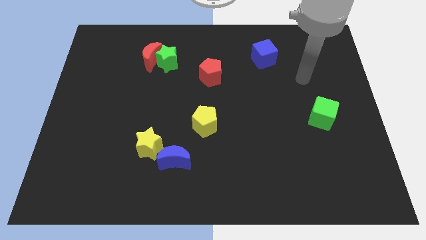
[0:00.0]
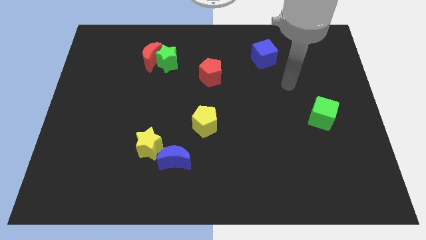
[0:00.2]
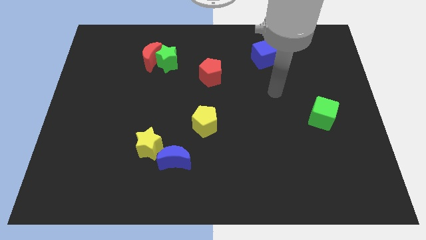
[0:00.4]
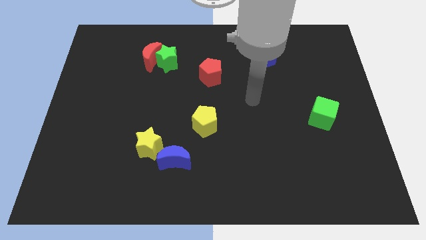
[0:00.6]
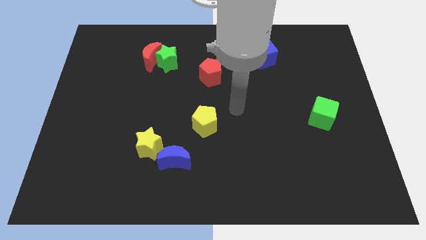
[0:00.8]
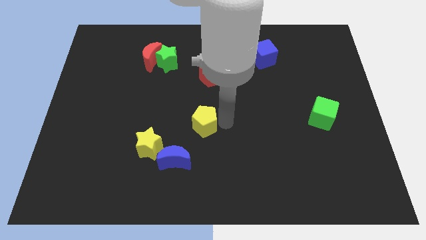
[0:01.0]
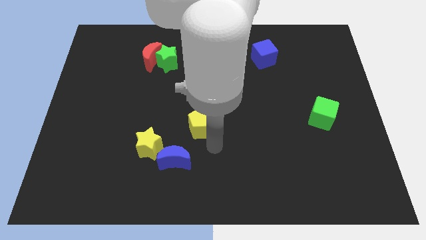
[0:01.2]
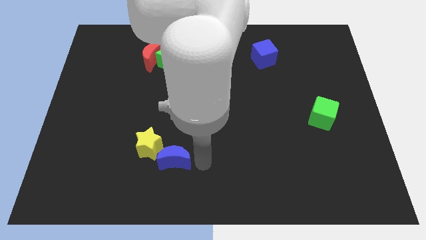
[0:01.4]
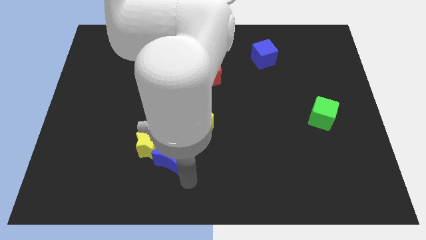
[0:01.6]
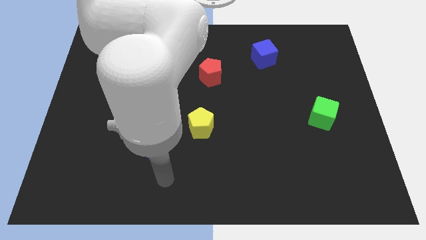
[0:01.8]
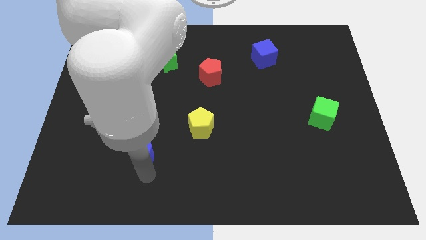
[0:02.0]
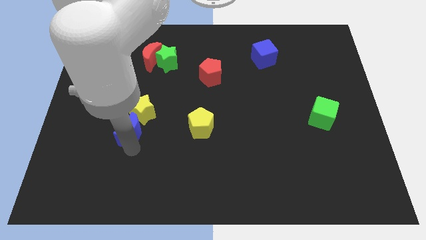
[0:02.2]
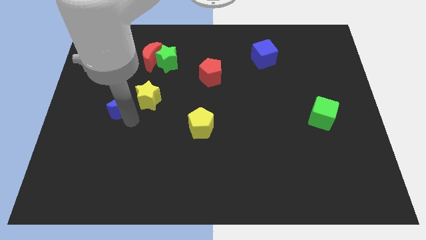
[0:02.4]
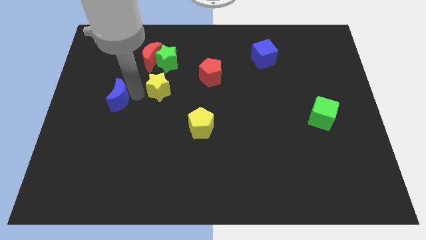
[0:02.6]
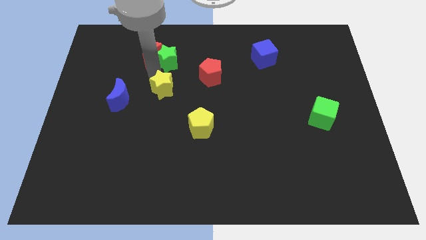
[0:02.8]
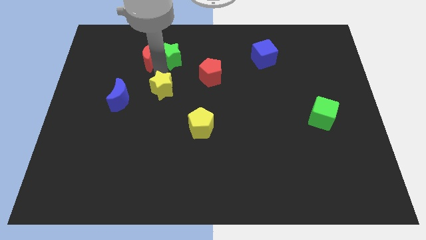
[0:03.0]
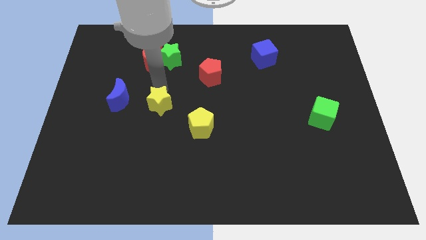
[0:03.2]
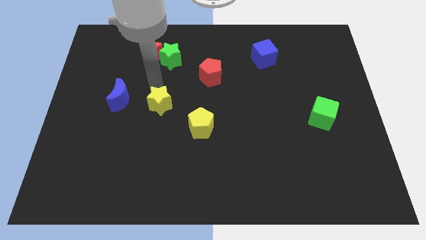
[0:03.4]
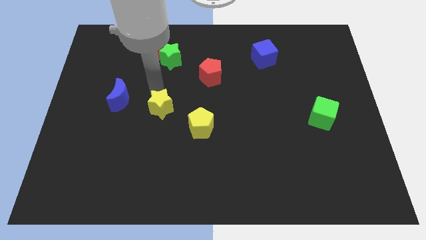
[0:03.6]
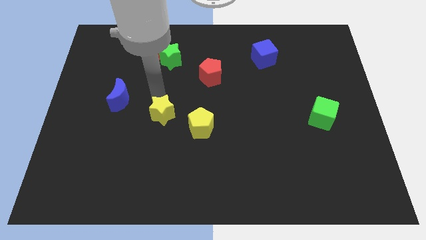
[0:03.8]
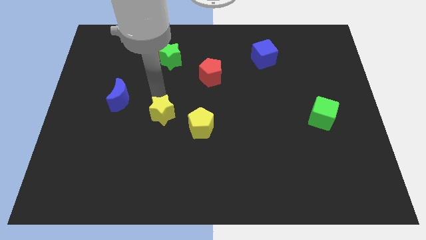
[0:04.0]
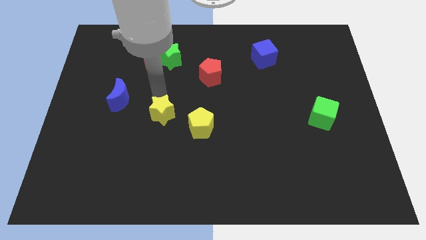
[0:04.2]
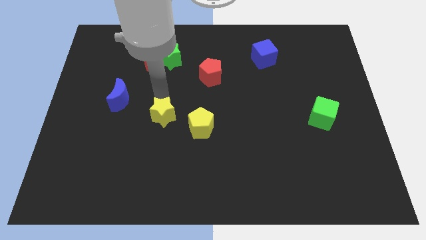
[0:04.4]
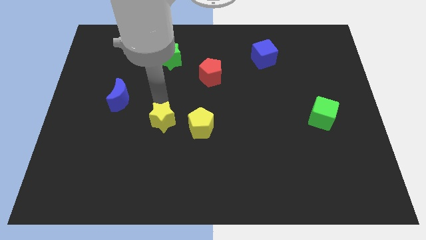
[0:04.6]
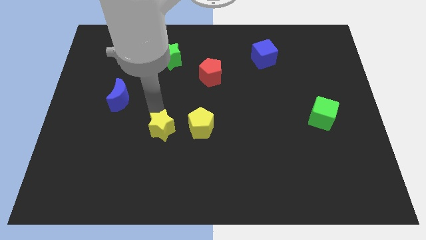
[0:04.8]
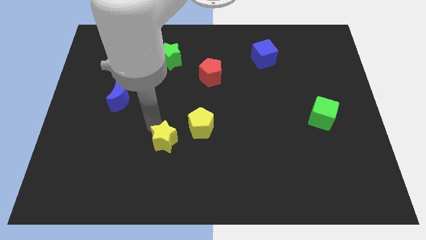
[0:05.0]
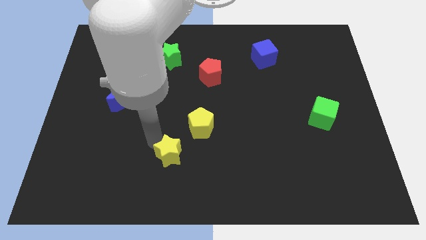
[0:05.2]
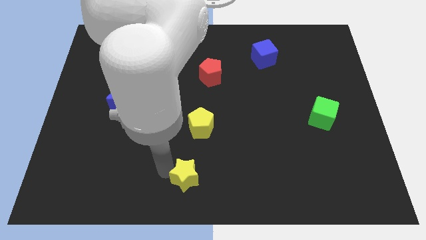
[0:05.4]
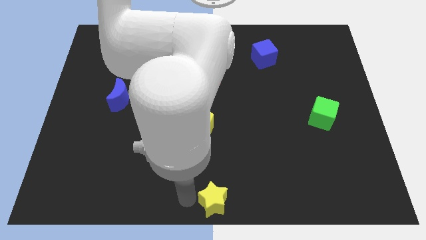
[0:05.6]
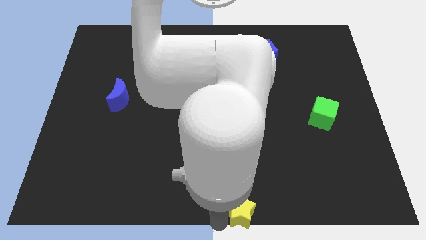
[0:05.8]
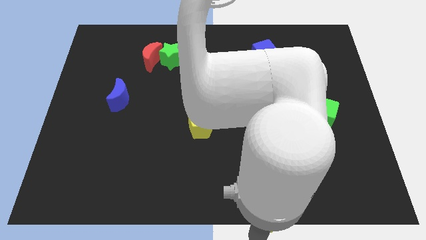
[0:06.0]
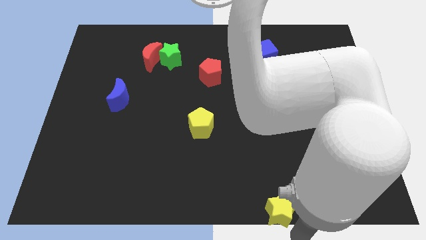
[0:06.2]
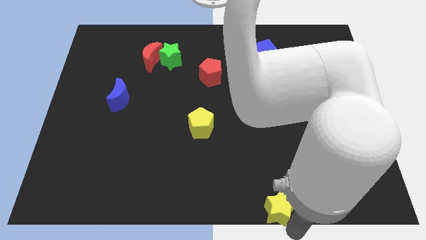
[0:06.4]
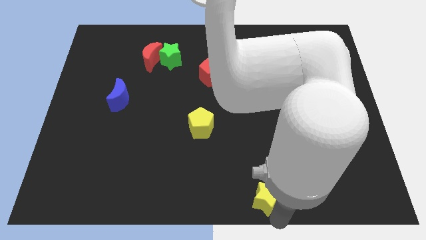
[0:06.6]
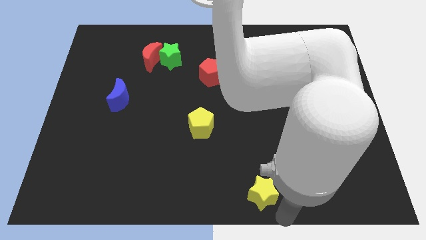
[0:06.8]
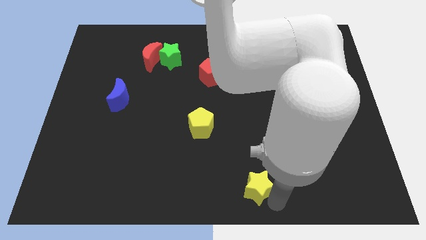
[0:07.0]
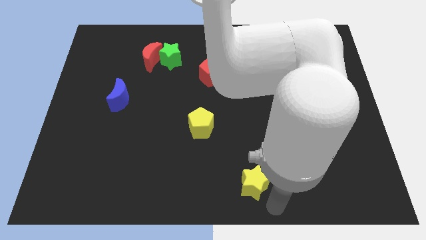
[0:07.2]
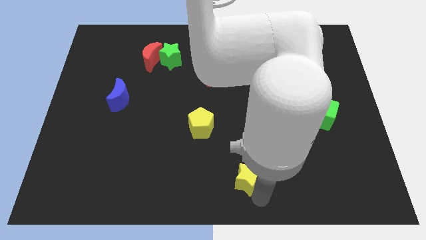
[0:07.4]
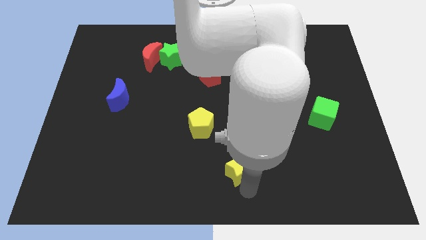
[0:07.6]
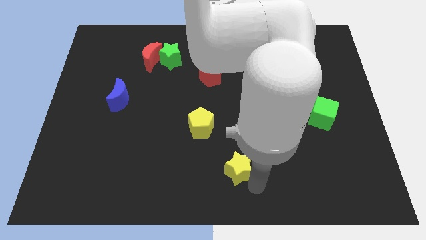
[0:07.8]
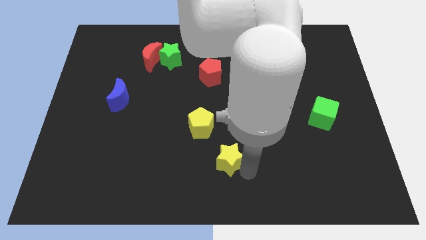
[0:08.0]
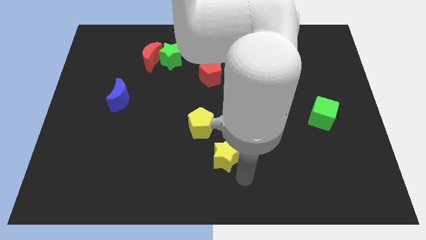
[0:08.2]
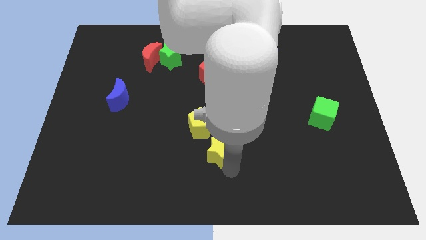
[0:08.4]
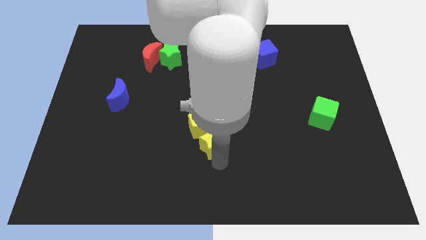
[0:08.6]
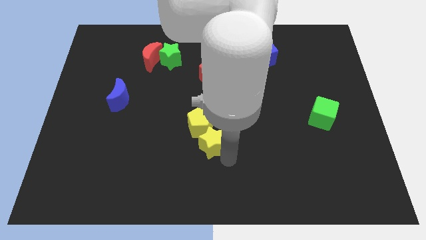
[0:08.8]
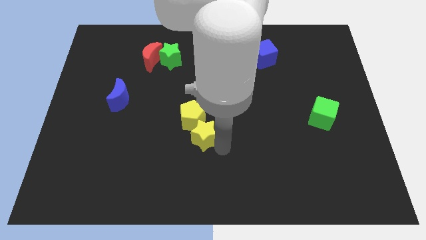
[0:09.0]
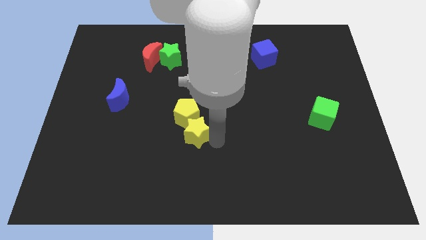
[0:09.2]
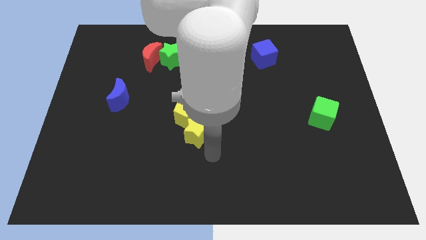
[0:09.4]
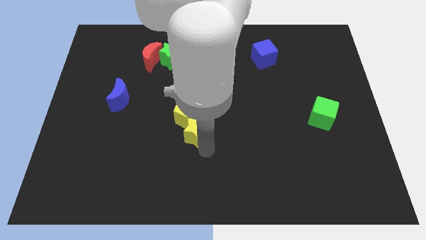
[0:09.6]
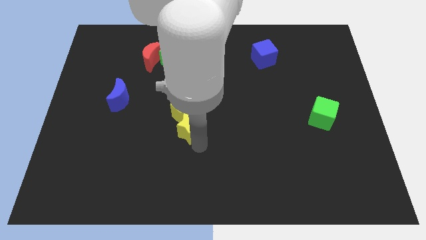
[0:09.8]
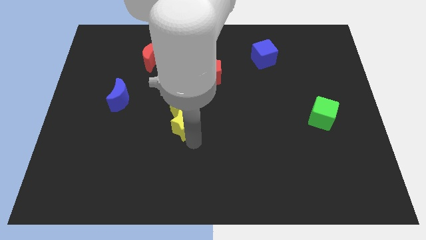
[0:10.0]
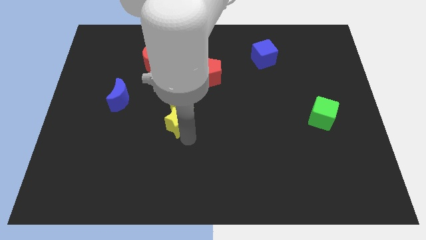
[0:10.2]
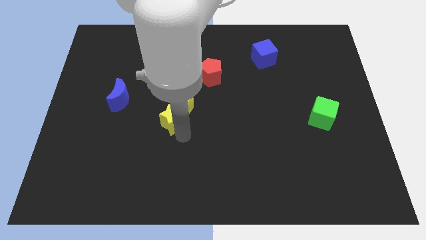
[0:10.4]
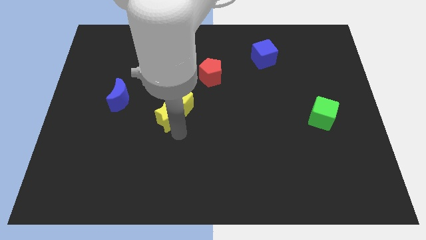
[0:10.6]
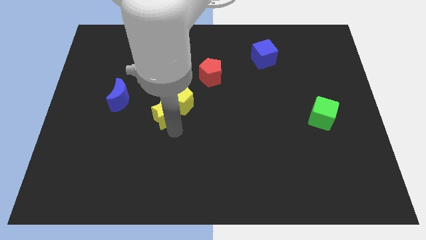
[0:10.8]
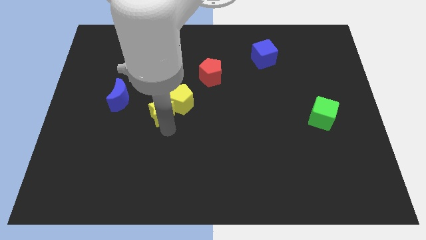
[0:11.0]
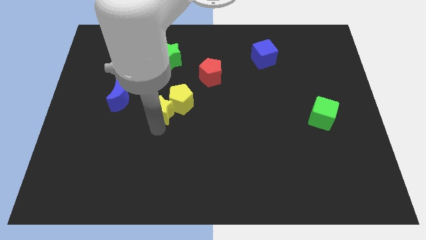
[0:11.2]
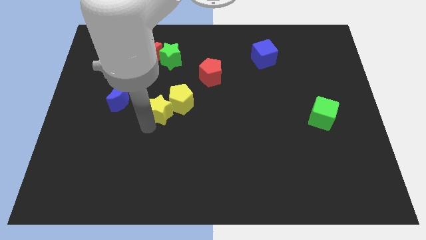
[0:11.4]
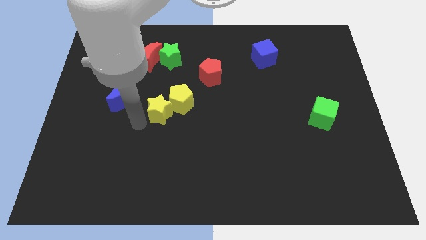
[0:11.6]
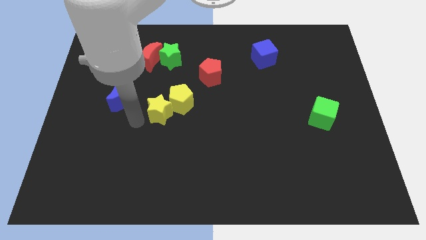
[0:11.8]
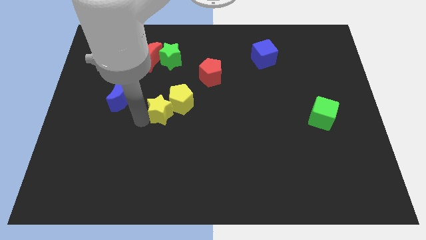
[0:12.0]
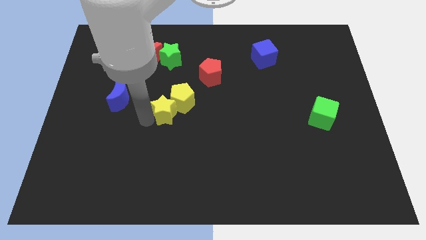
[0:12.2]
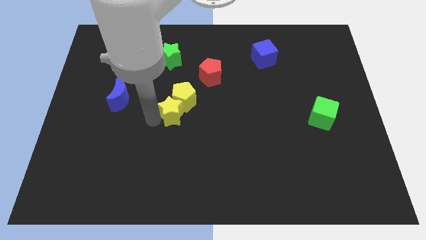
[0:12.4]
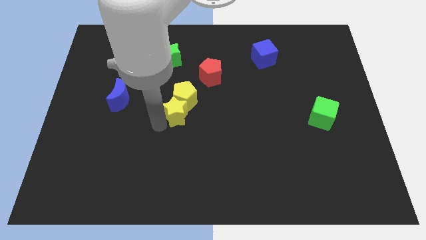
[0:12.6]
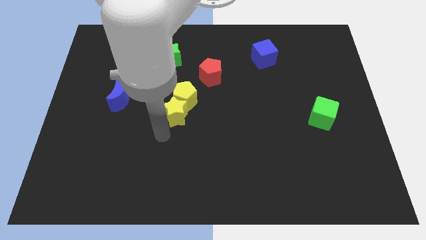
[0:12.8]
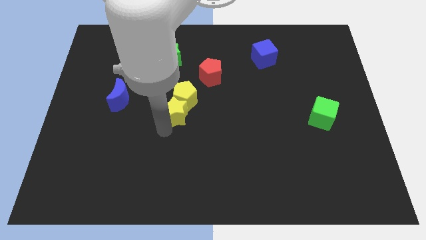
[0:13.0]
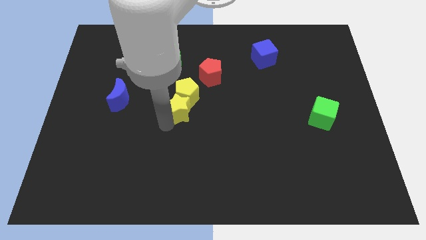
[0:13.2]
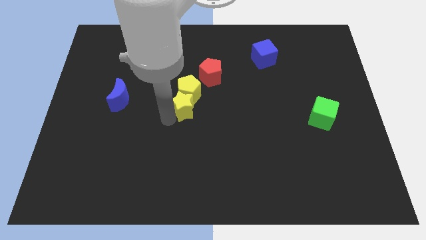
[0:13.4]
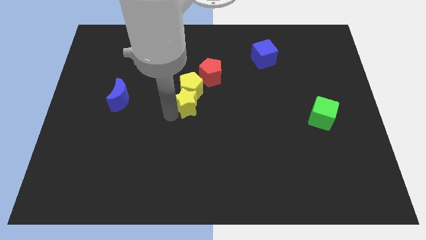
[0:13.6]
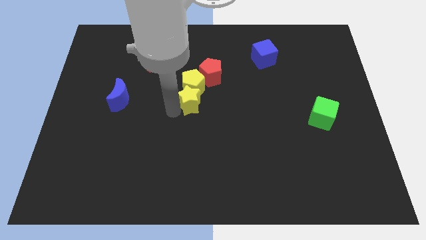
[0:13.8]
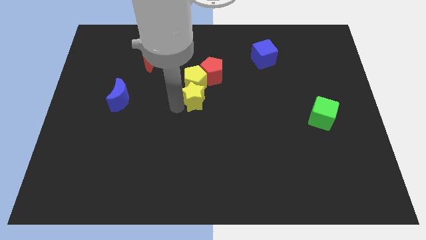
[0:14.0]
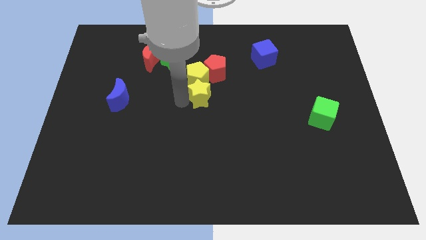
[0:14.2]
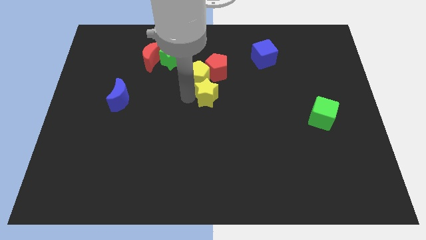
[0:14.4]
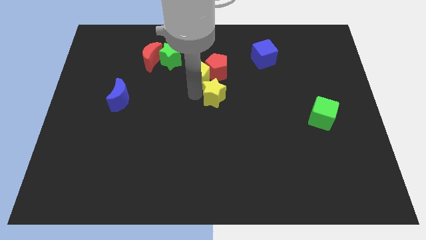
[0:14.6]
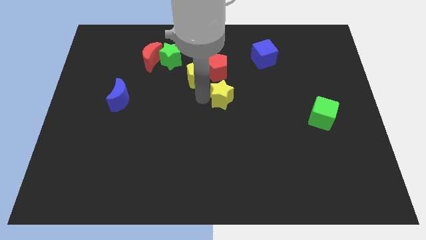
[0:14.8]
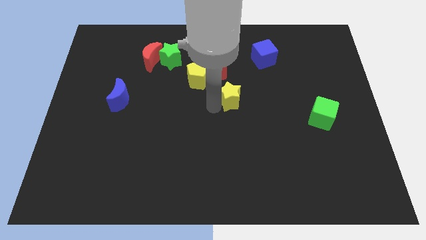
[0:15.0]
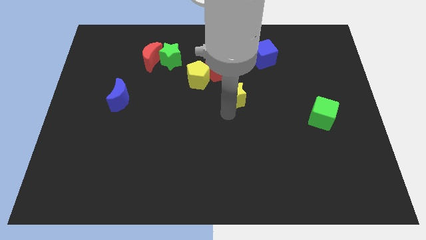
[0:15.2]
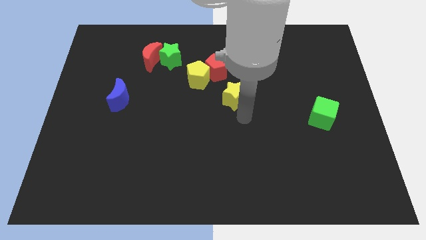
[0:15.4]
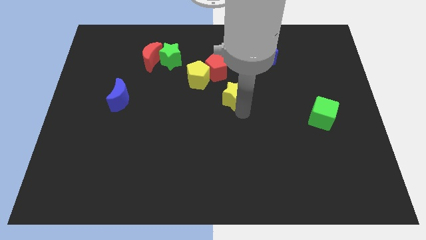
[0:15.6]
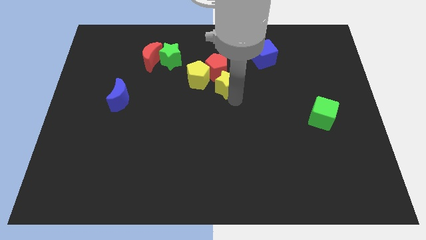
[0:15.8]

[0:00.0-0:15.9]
move the yellow star next to the red pentagon
